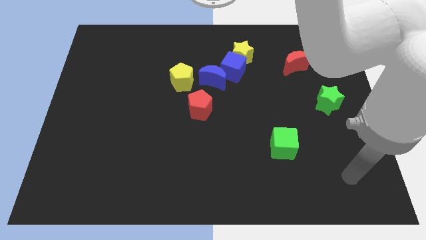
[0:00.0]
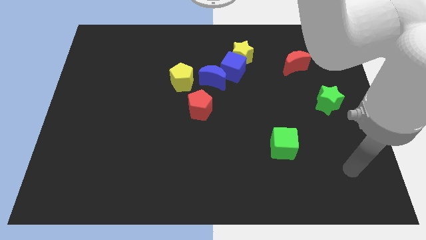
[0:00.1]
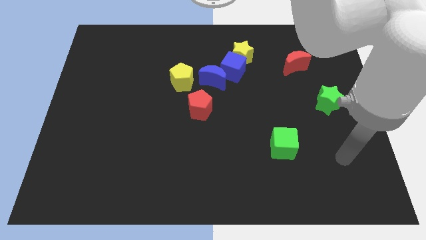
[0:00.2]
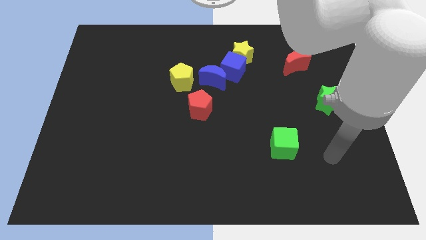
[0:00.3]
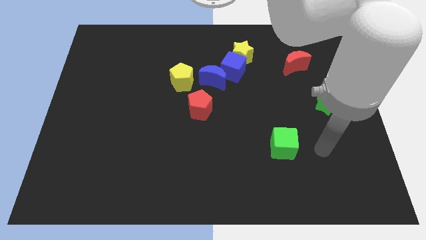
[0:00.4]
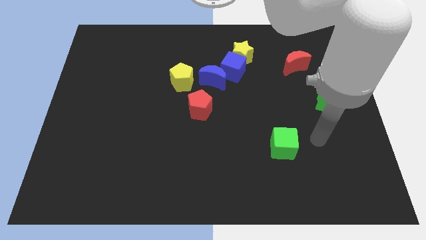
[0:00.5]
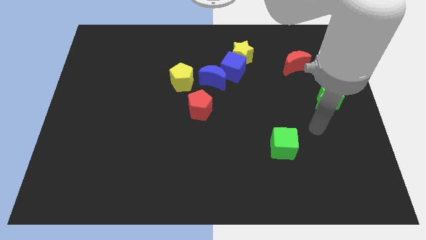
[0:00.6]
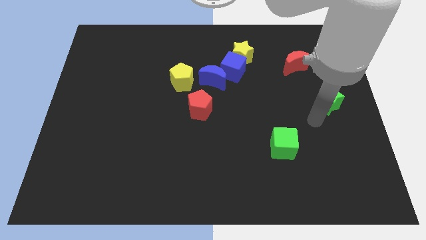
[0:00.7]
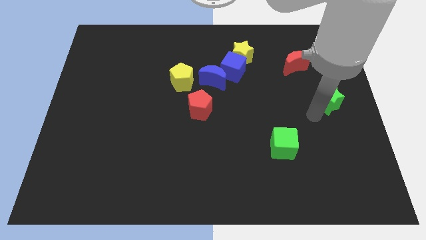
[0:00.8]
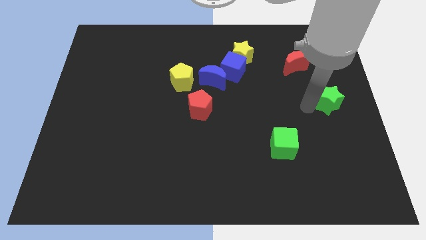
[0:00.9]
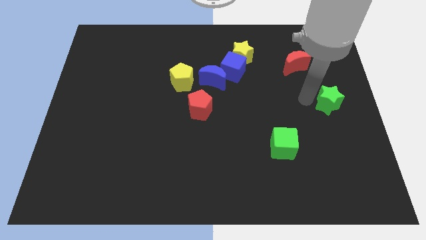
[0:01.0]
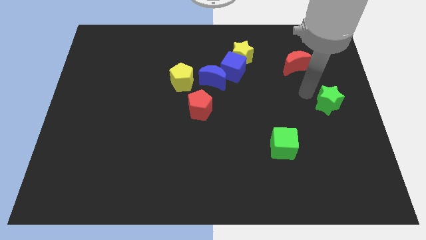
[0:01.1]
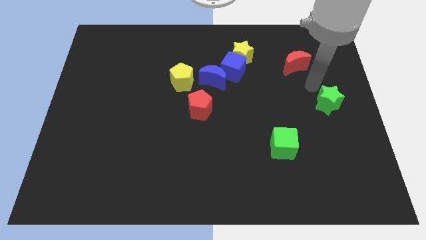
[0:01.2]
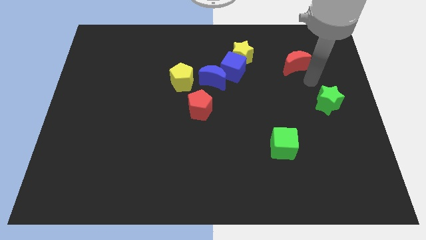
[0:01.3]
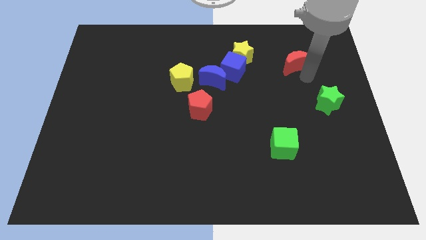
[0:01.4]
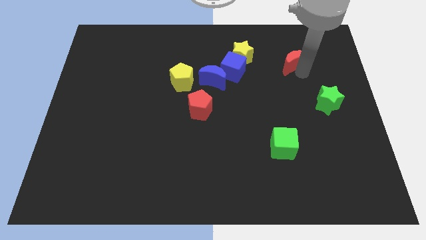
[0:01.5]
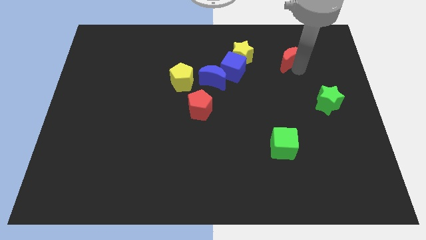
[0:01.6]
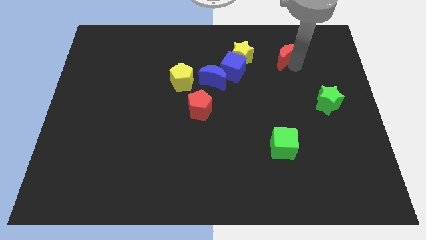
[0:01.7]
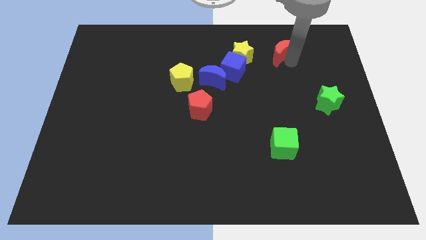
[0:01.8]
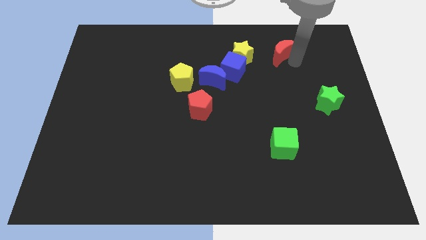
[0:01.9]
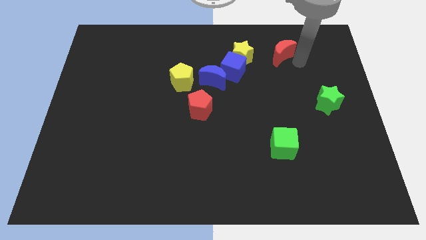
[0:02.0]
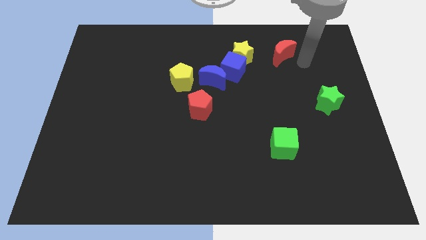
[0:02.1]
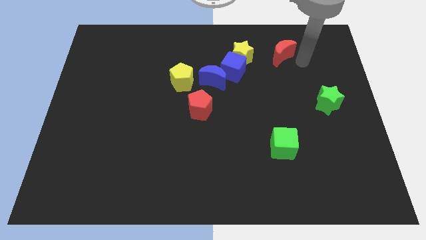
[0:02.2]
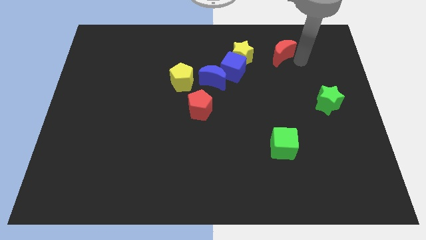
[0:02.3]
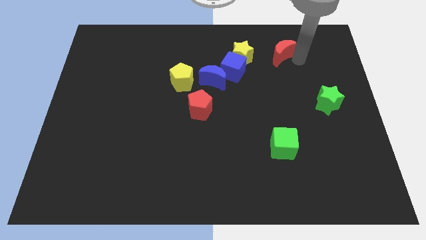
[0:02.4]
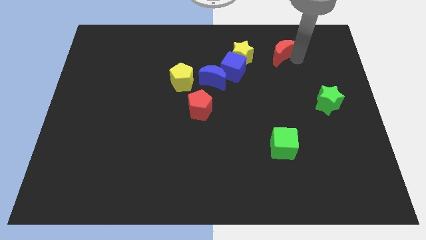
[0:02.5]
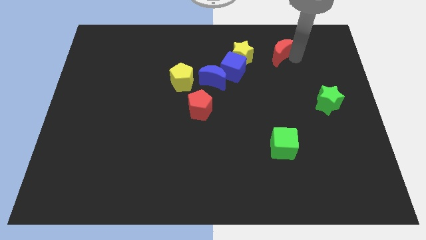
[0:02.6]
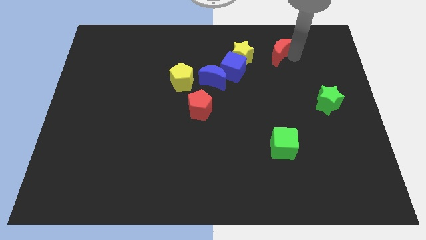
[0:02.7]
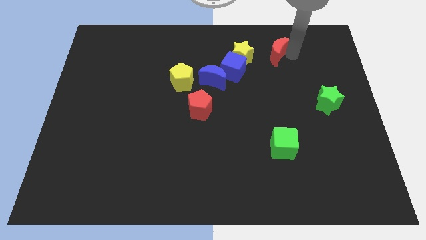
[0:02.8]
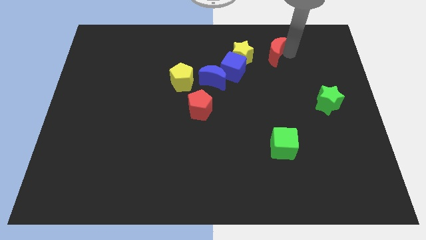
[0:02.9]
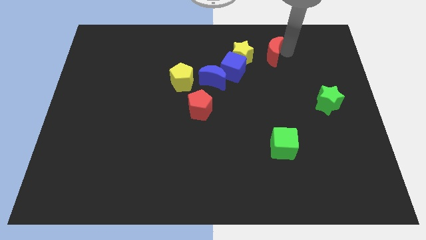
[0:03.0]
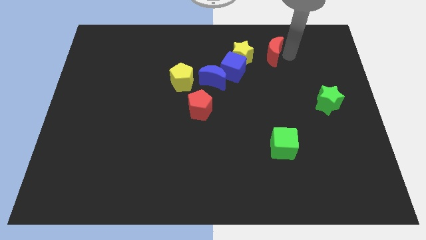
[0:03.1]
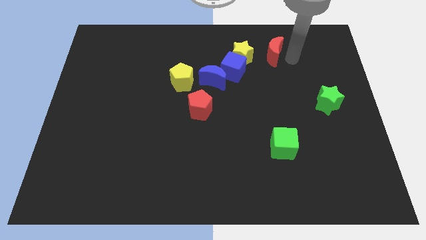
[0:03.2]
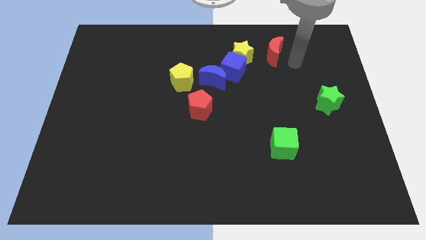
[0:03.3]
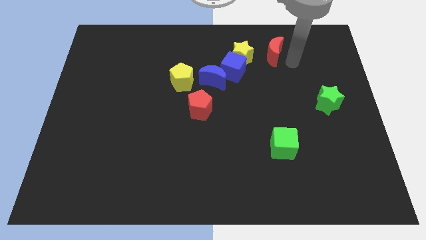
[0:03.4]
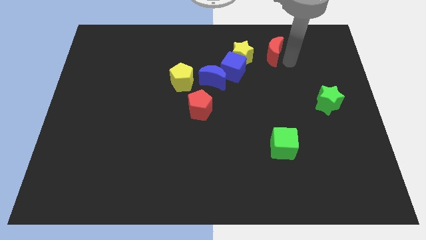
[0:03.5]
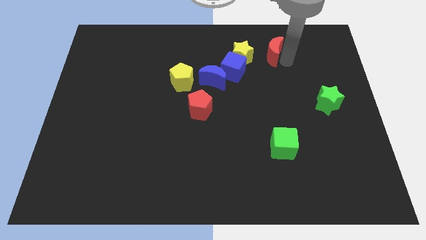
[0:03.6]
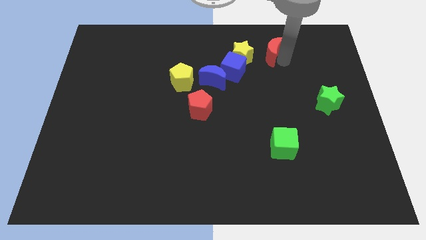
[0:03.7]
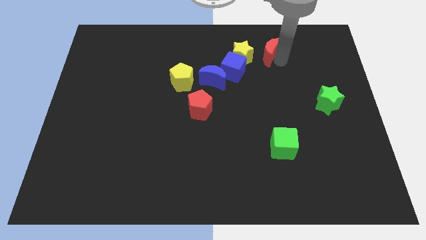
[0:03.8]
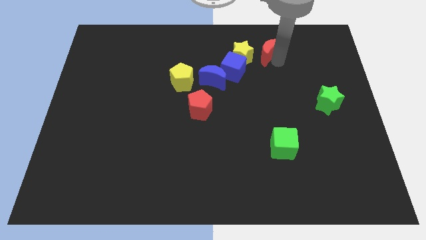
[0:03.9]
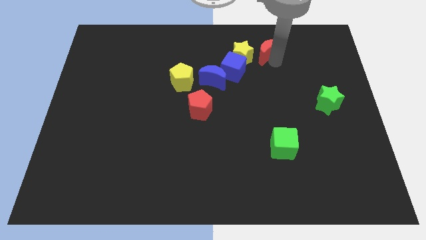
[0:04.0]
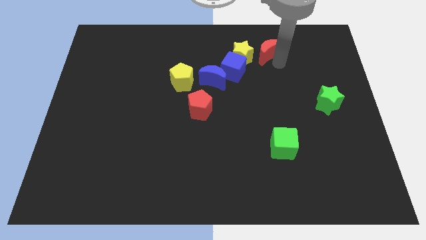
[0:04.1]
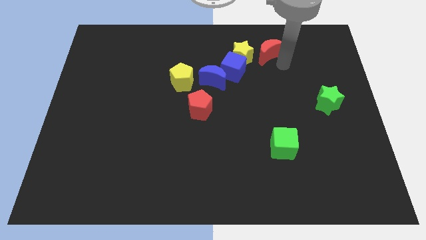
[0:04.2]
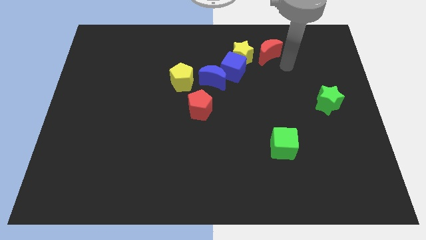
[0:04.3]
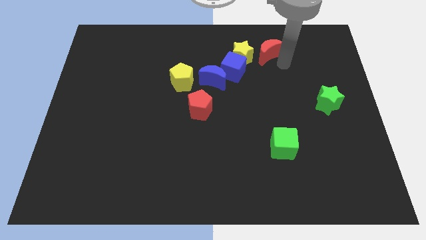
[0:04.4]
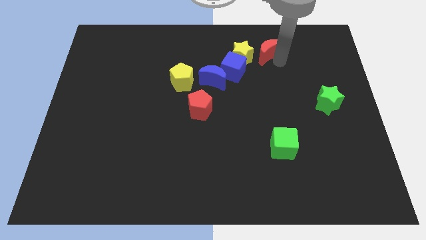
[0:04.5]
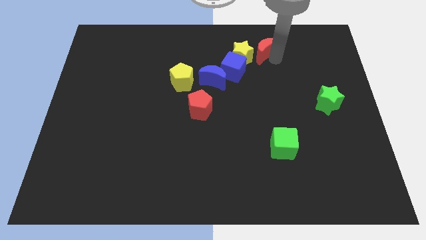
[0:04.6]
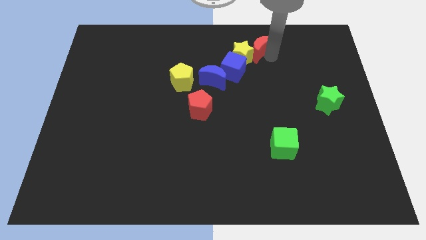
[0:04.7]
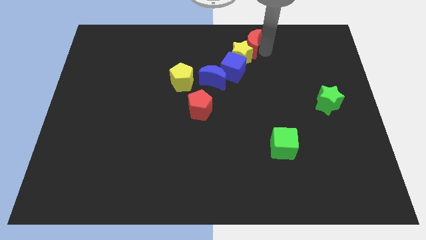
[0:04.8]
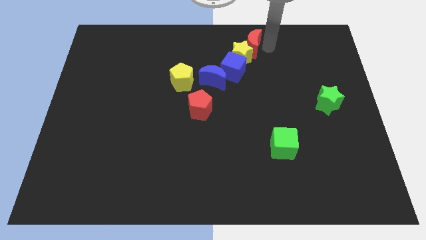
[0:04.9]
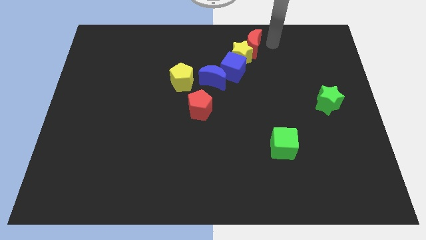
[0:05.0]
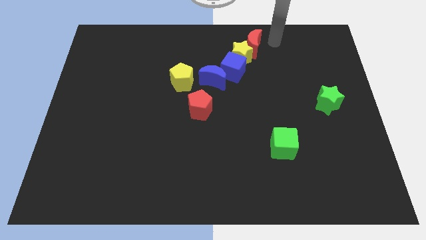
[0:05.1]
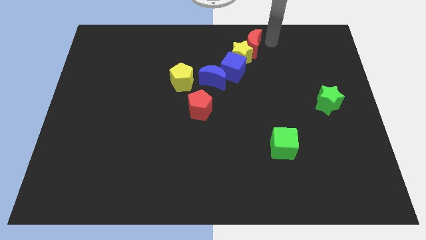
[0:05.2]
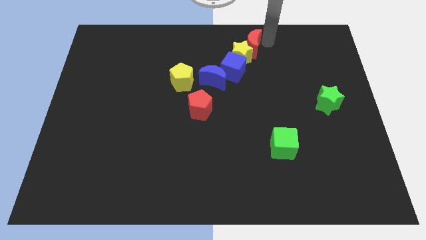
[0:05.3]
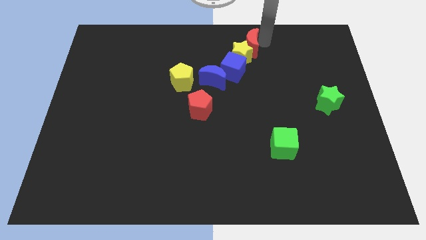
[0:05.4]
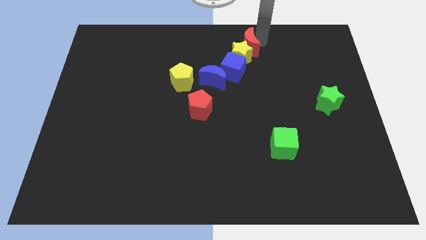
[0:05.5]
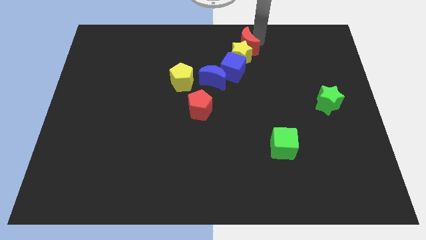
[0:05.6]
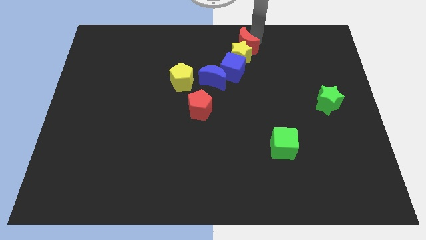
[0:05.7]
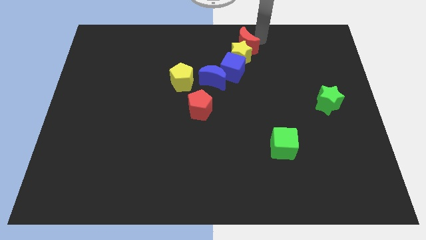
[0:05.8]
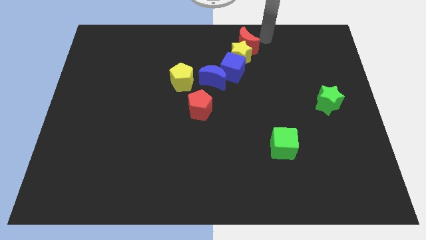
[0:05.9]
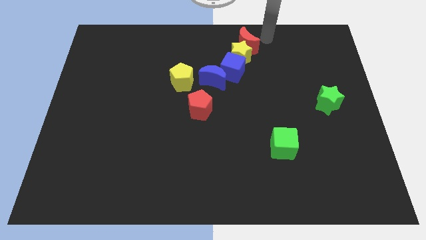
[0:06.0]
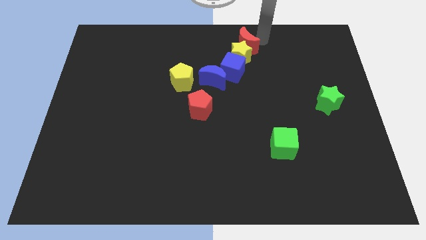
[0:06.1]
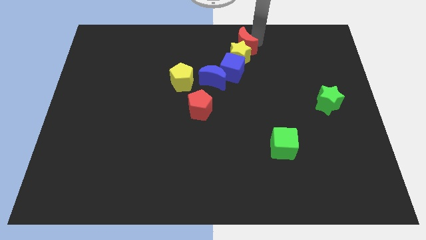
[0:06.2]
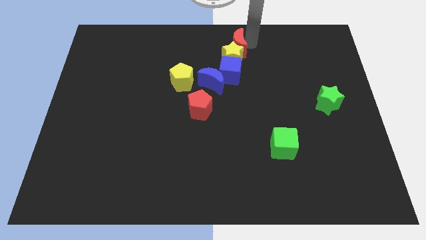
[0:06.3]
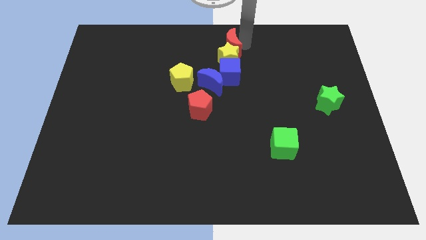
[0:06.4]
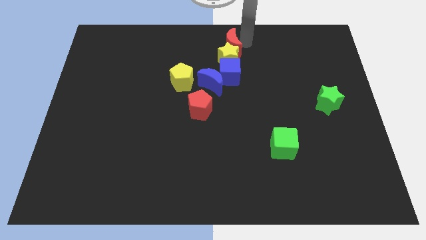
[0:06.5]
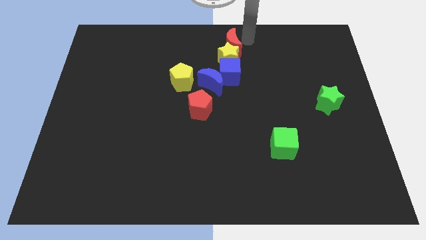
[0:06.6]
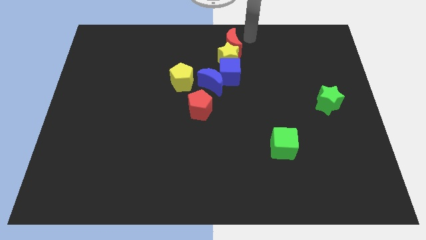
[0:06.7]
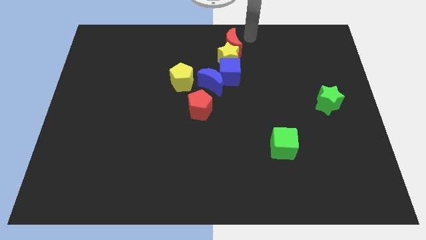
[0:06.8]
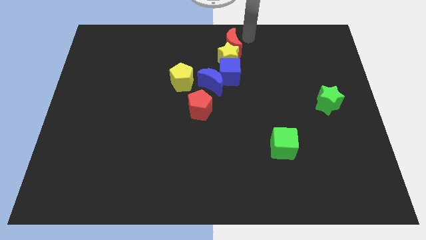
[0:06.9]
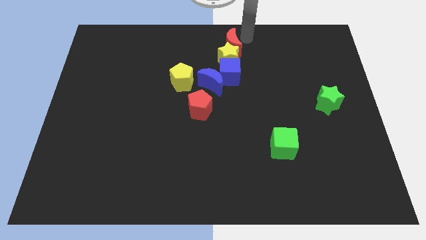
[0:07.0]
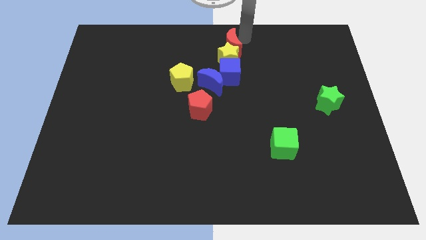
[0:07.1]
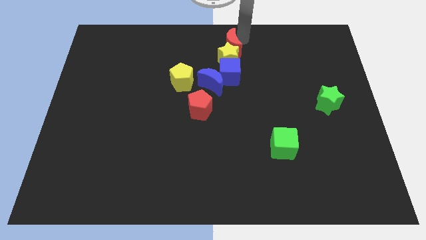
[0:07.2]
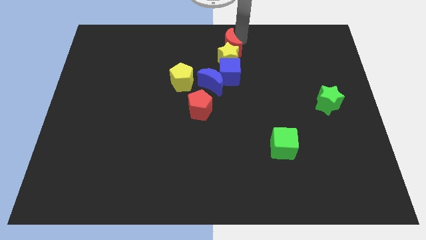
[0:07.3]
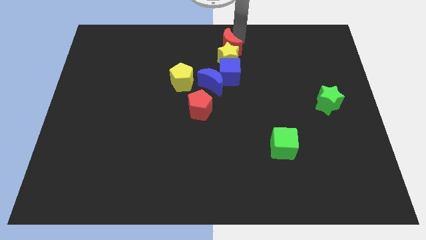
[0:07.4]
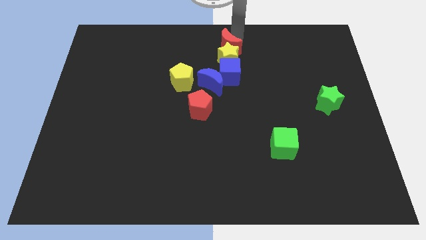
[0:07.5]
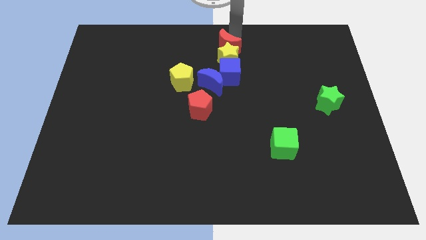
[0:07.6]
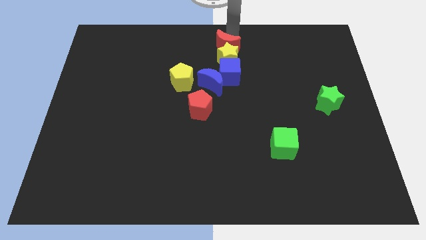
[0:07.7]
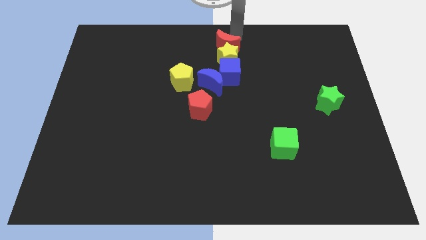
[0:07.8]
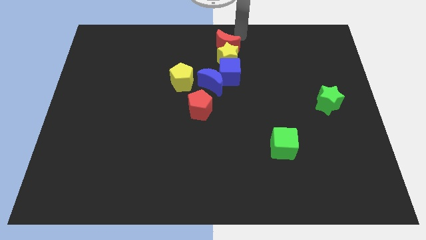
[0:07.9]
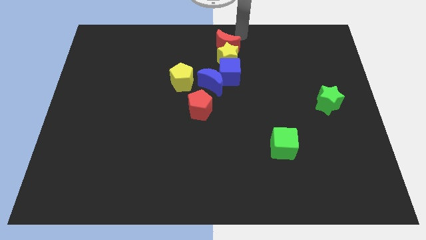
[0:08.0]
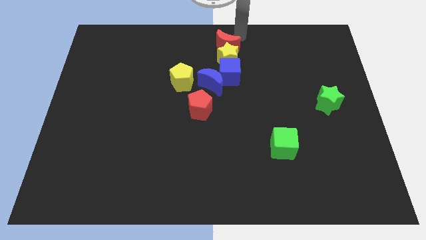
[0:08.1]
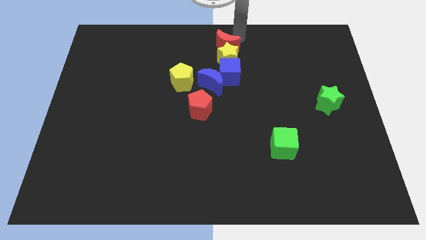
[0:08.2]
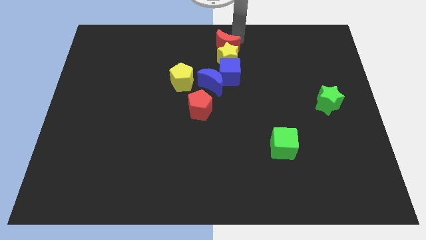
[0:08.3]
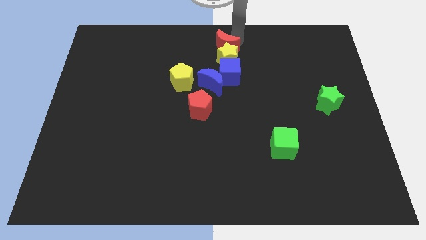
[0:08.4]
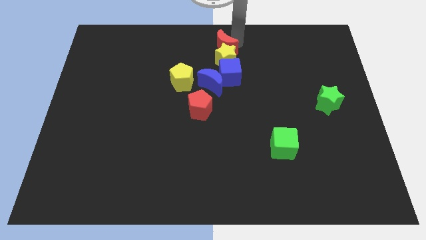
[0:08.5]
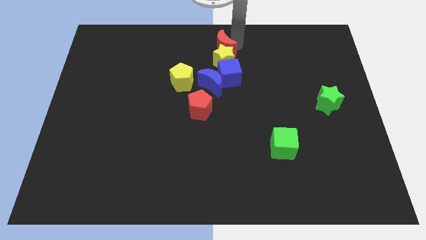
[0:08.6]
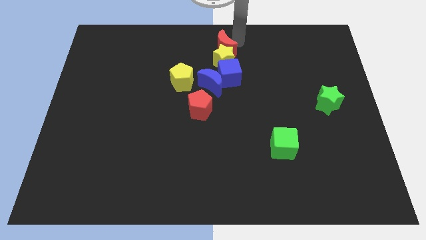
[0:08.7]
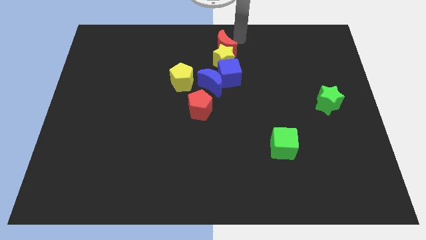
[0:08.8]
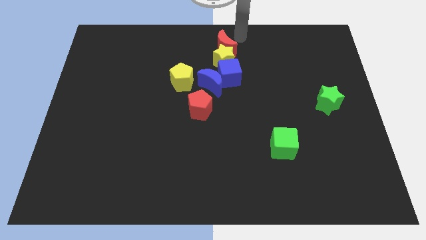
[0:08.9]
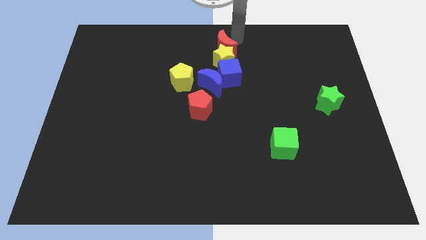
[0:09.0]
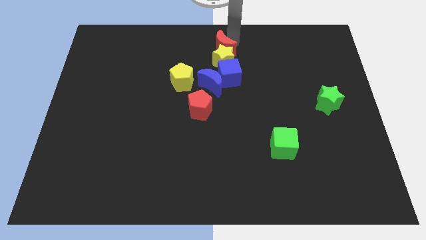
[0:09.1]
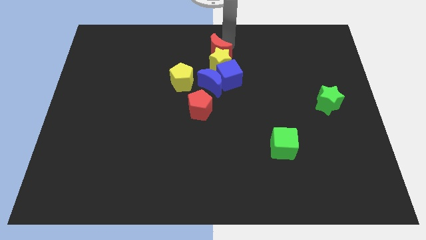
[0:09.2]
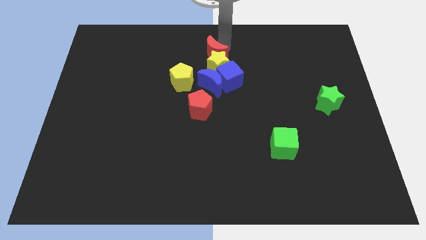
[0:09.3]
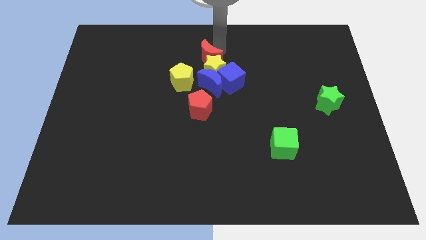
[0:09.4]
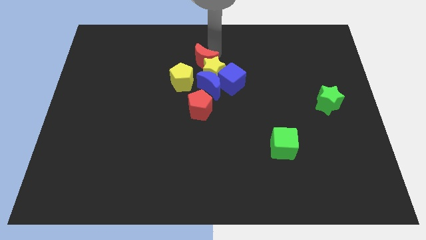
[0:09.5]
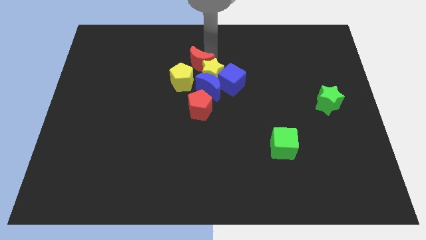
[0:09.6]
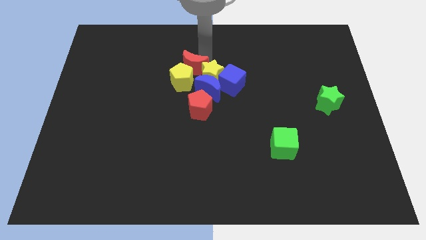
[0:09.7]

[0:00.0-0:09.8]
slide the red moon close to the yellow pentagon
